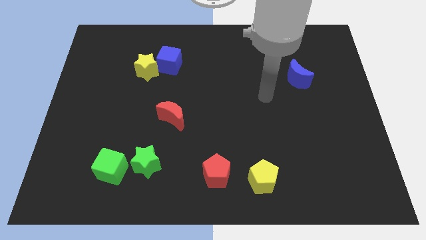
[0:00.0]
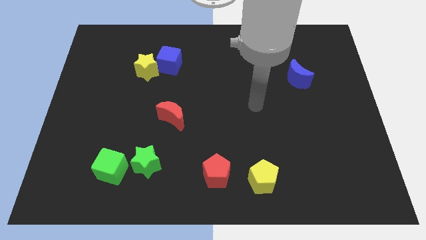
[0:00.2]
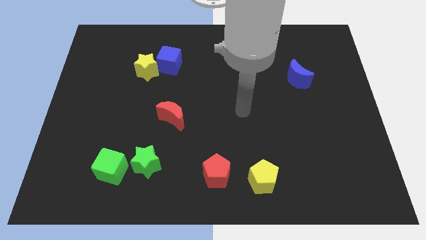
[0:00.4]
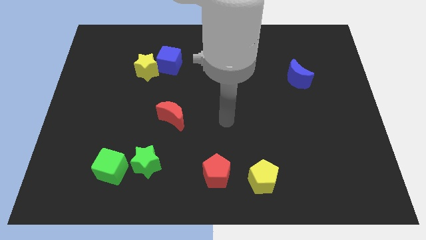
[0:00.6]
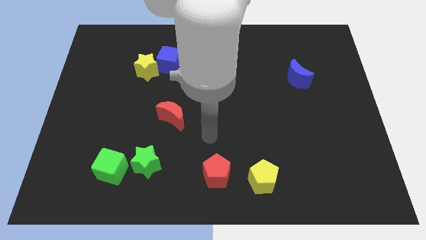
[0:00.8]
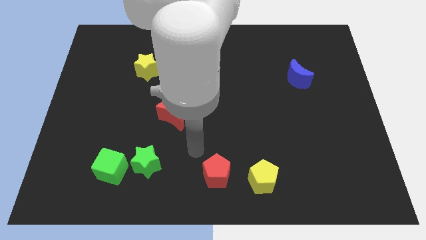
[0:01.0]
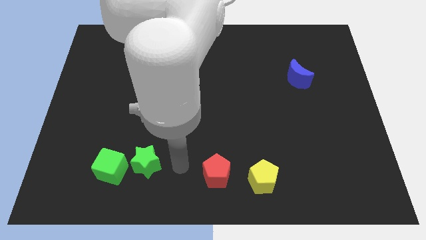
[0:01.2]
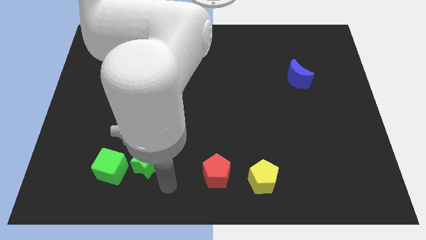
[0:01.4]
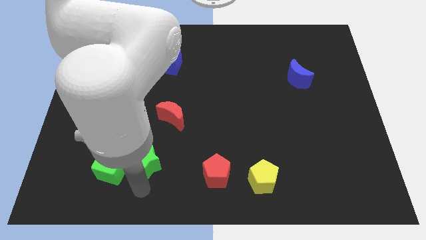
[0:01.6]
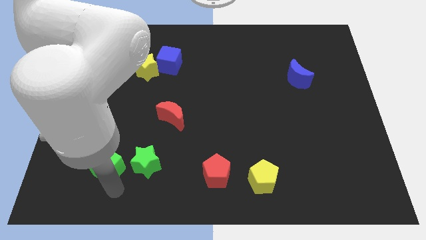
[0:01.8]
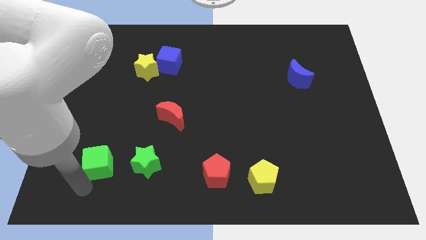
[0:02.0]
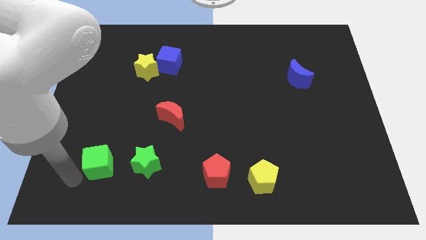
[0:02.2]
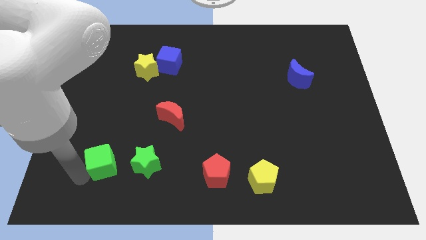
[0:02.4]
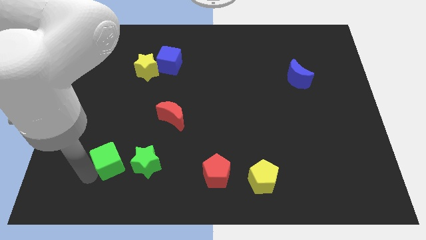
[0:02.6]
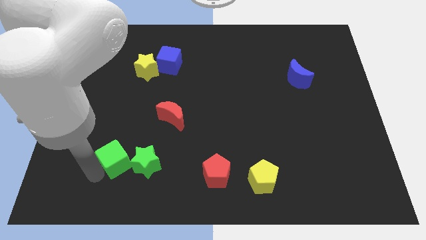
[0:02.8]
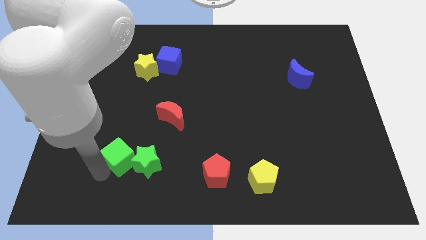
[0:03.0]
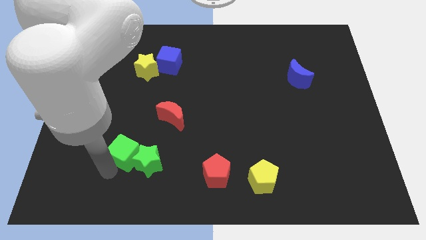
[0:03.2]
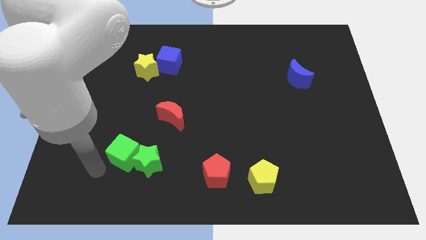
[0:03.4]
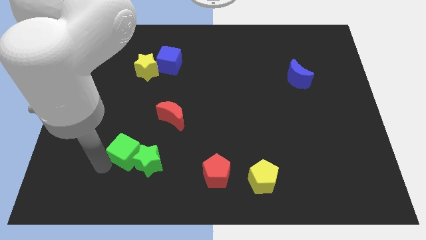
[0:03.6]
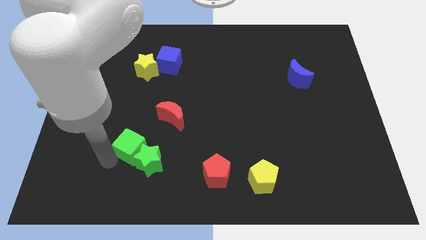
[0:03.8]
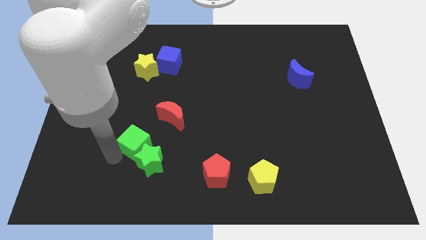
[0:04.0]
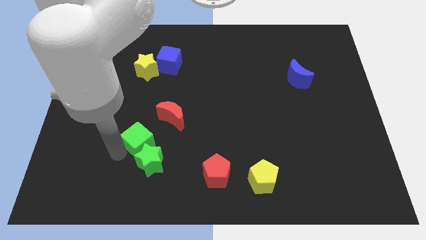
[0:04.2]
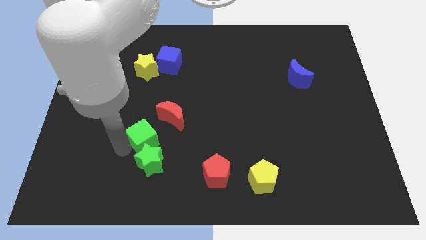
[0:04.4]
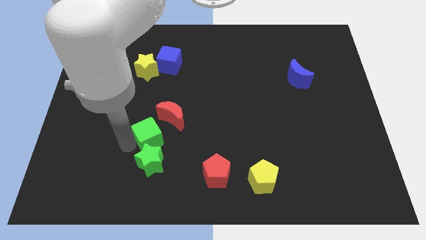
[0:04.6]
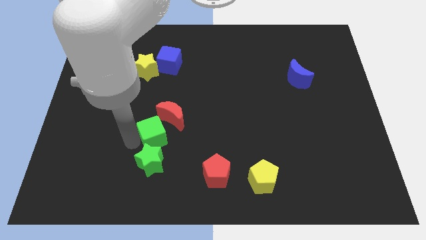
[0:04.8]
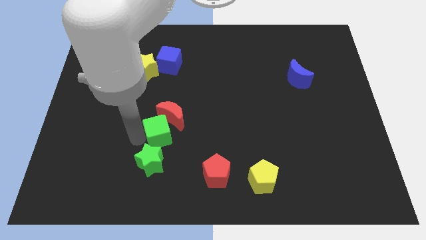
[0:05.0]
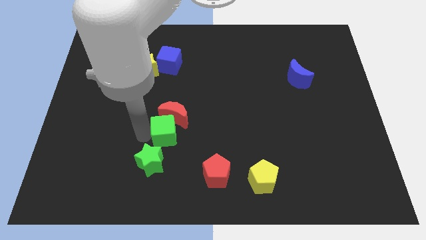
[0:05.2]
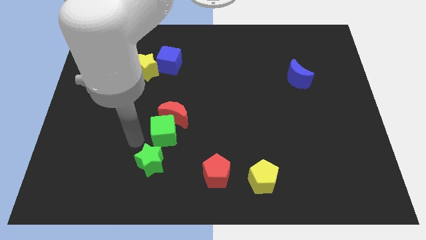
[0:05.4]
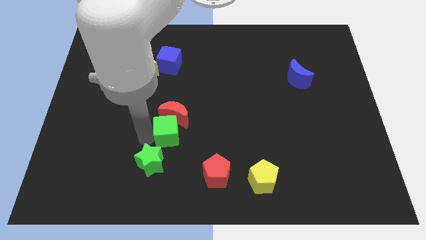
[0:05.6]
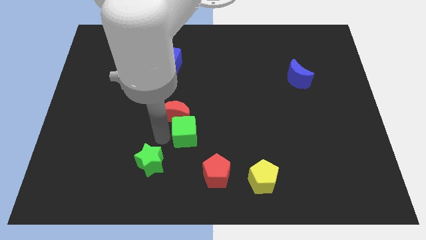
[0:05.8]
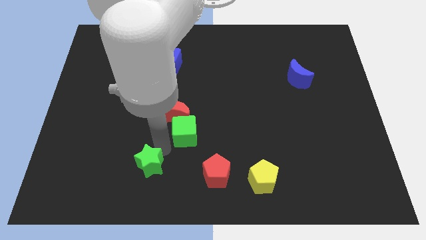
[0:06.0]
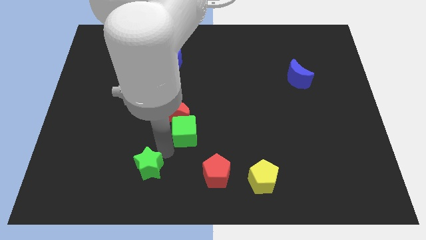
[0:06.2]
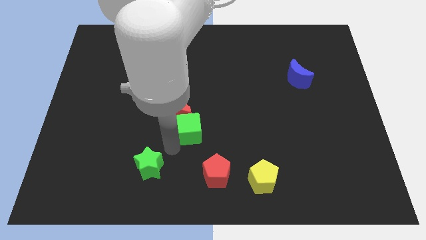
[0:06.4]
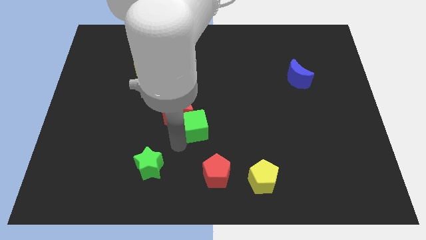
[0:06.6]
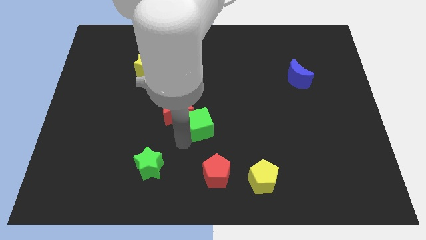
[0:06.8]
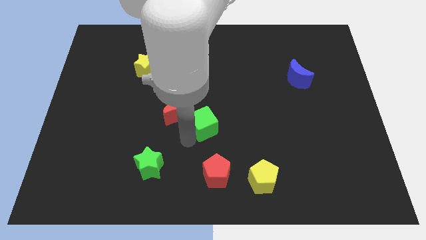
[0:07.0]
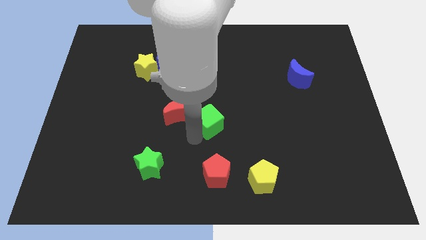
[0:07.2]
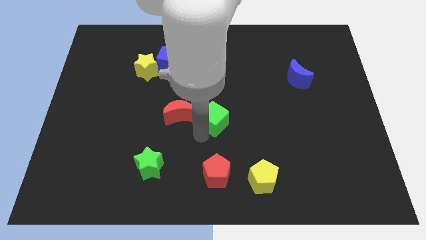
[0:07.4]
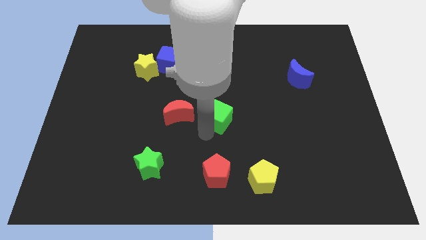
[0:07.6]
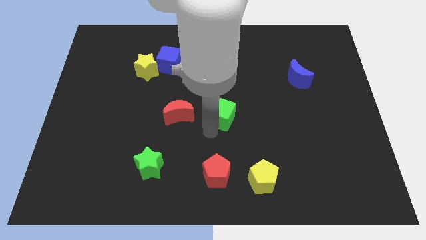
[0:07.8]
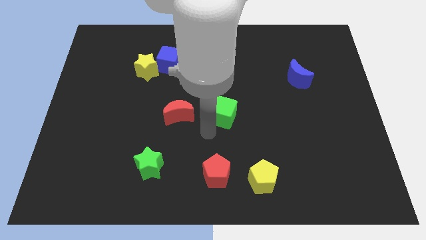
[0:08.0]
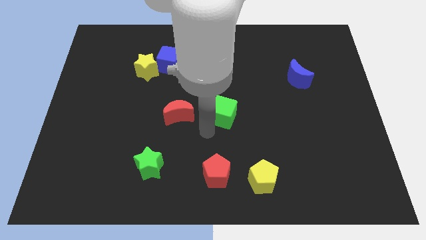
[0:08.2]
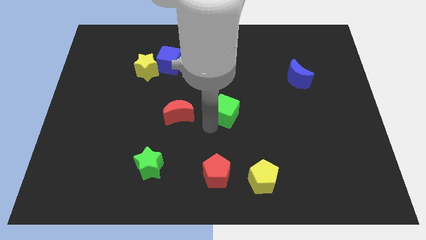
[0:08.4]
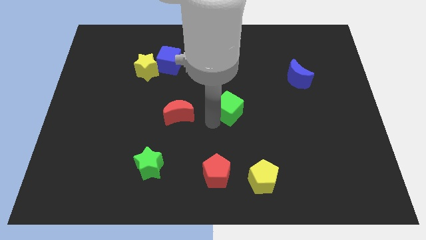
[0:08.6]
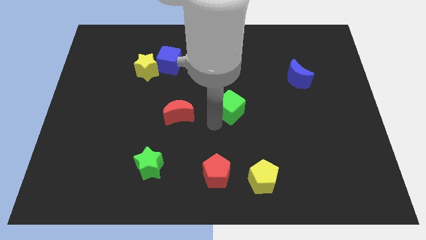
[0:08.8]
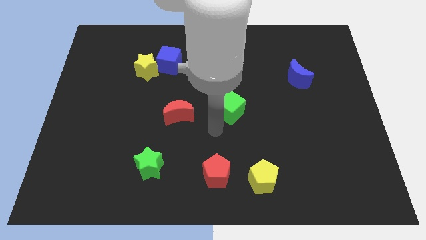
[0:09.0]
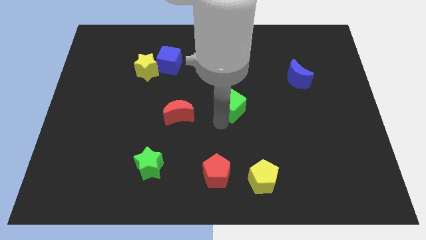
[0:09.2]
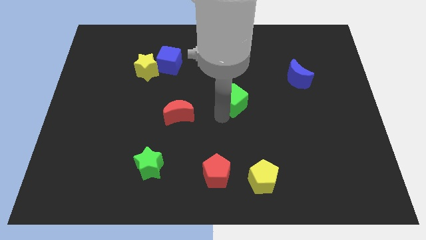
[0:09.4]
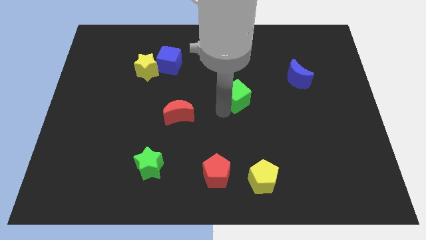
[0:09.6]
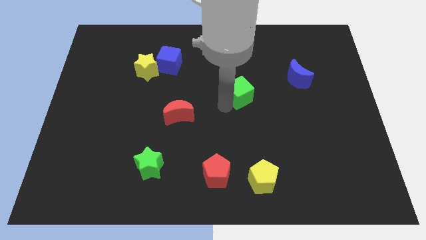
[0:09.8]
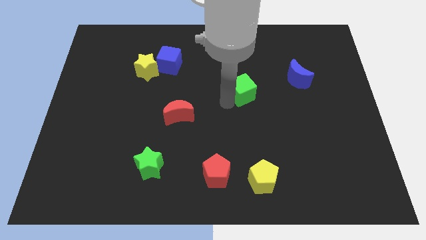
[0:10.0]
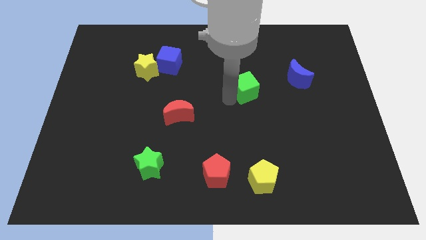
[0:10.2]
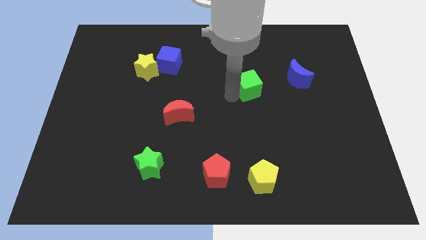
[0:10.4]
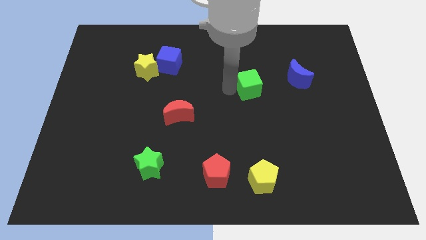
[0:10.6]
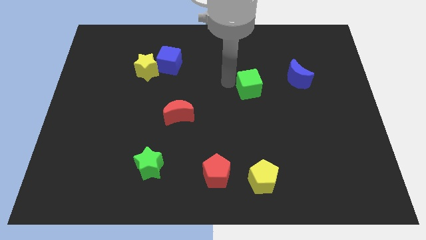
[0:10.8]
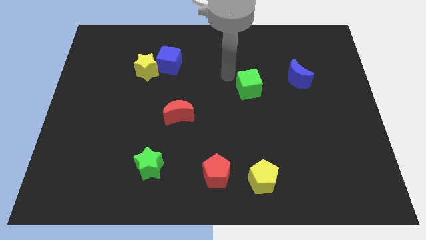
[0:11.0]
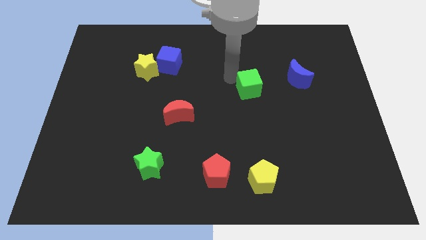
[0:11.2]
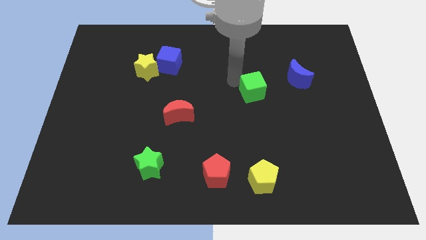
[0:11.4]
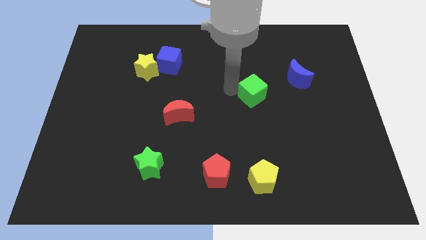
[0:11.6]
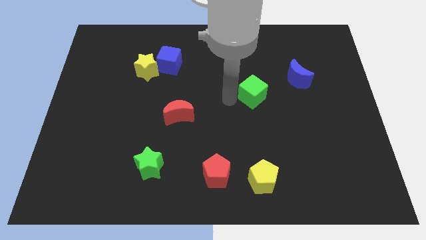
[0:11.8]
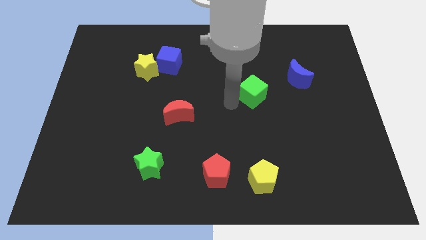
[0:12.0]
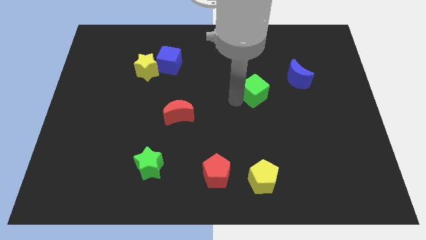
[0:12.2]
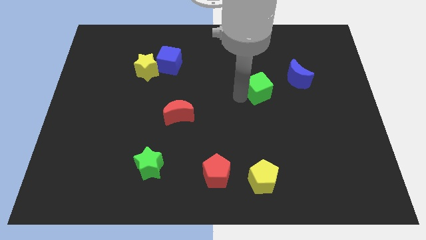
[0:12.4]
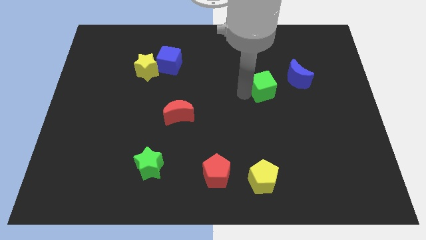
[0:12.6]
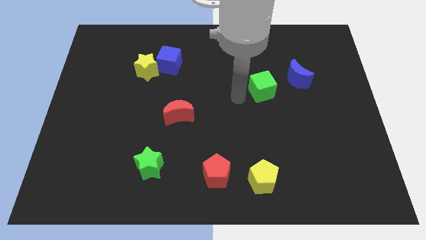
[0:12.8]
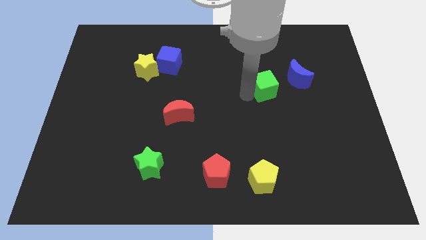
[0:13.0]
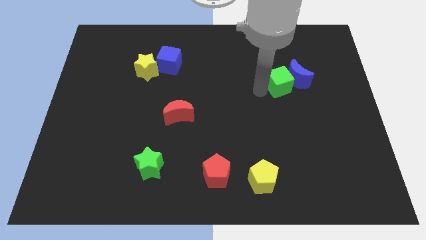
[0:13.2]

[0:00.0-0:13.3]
move the green cube to the blue moon
